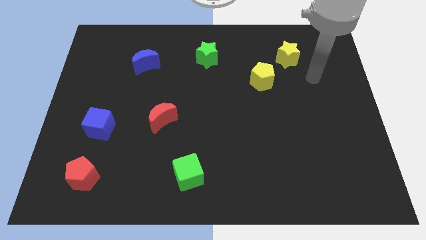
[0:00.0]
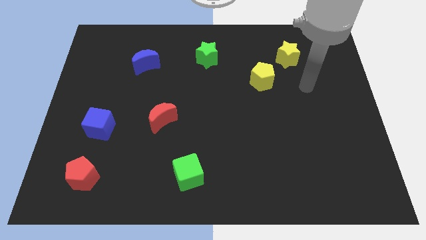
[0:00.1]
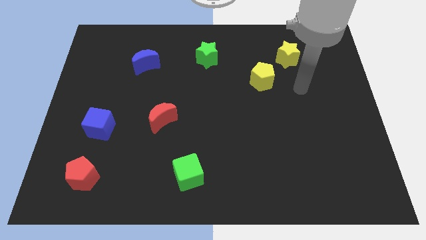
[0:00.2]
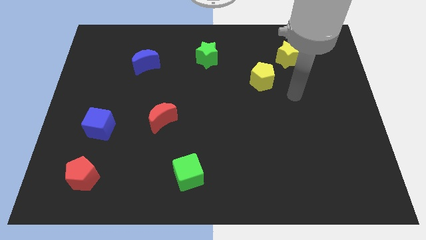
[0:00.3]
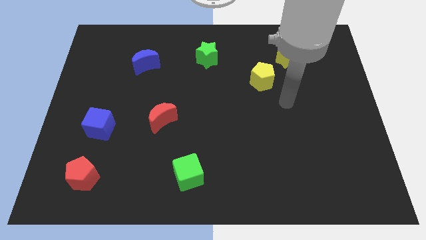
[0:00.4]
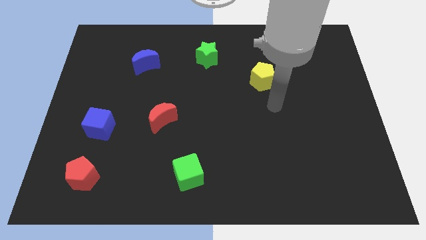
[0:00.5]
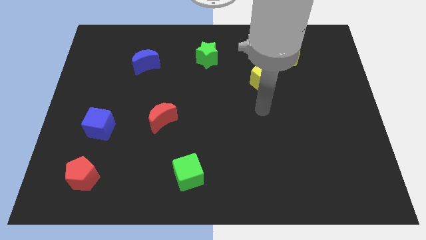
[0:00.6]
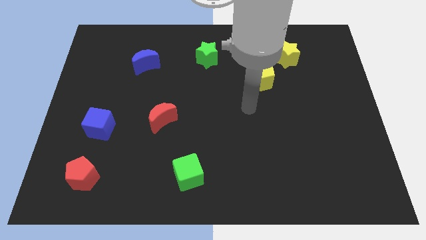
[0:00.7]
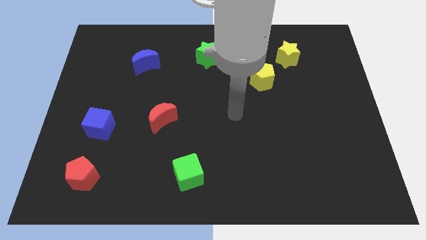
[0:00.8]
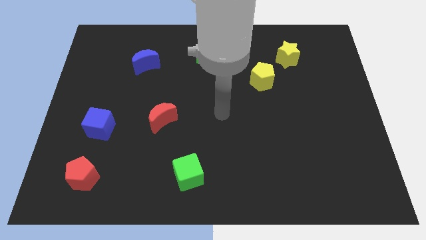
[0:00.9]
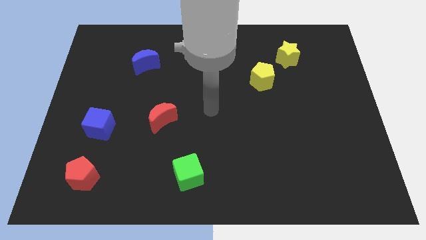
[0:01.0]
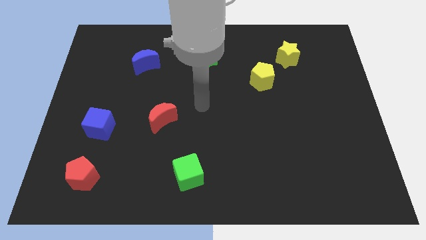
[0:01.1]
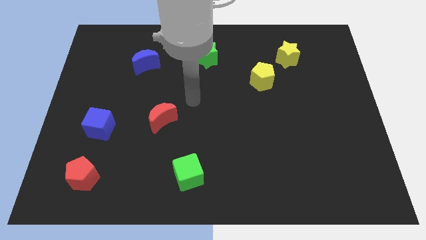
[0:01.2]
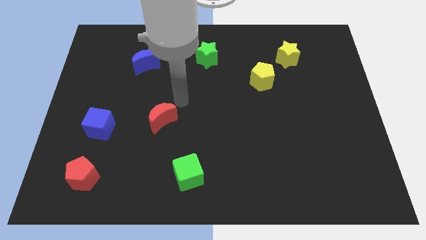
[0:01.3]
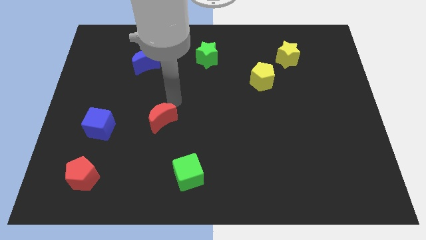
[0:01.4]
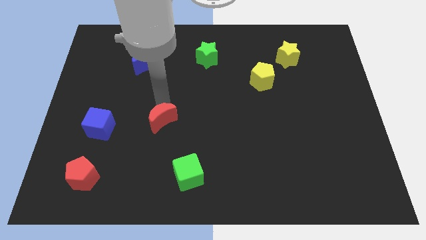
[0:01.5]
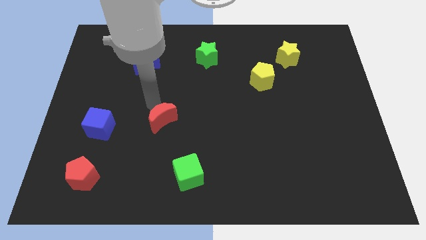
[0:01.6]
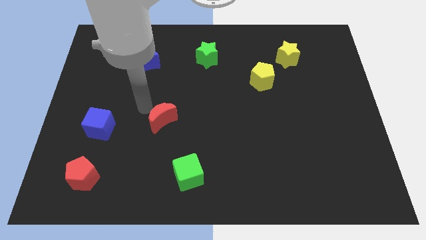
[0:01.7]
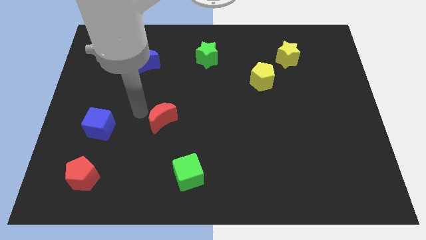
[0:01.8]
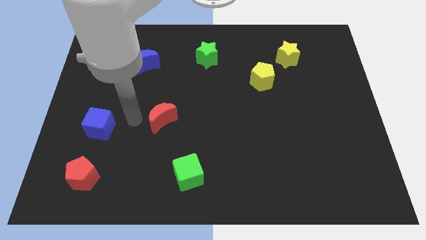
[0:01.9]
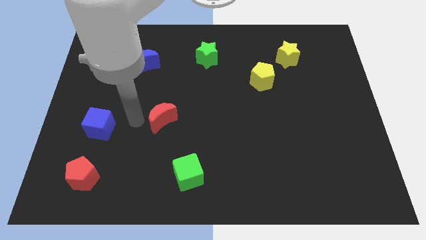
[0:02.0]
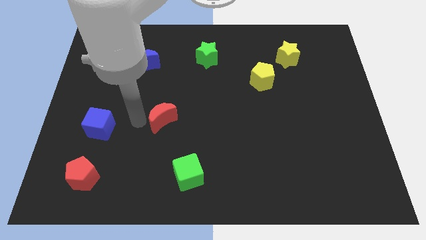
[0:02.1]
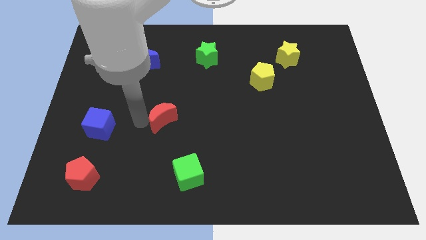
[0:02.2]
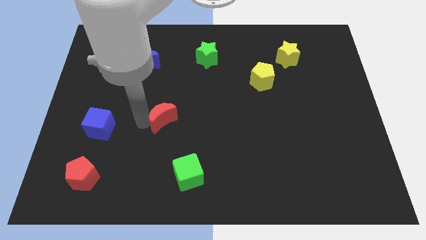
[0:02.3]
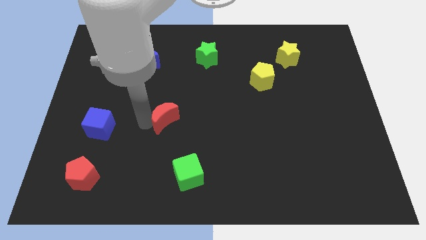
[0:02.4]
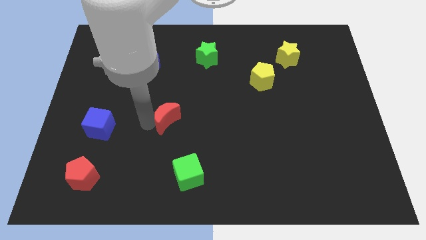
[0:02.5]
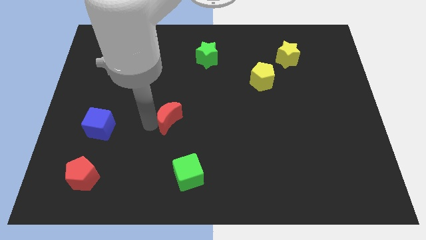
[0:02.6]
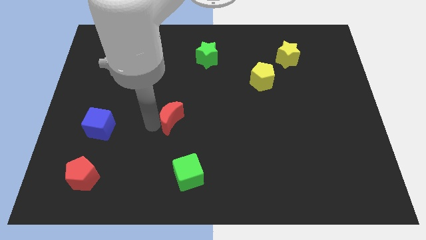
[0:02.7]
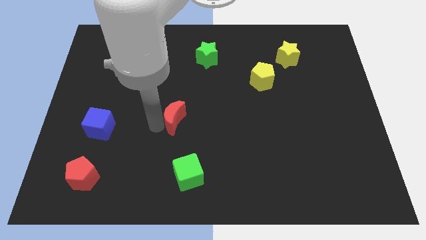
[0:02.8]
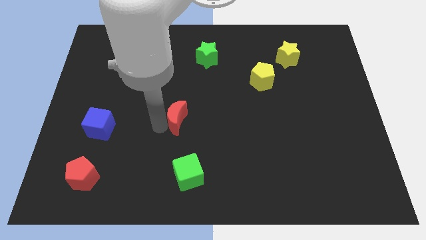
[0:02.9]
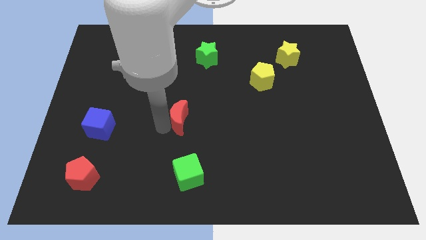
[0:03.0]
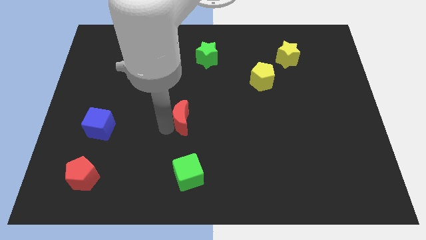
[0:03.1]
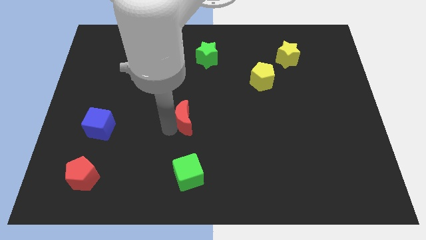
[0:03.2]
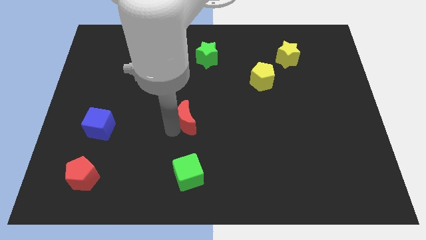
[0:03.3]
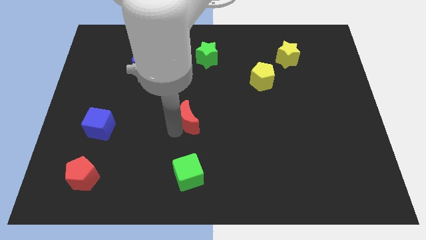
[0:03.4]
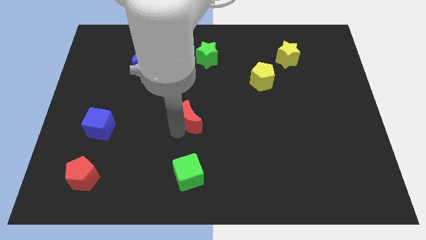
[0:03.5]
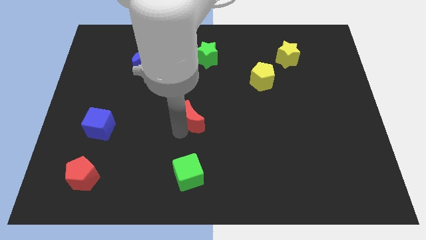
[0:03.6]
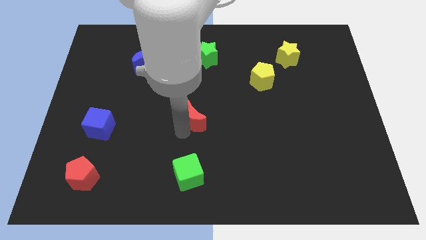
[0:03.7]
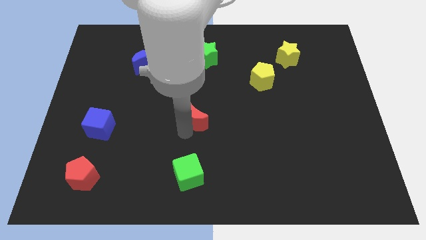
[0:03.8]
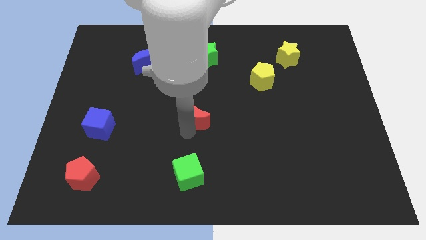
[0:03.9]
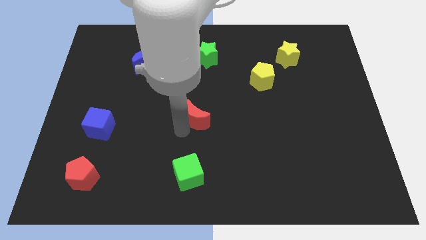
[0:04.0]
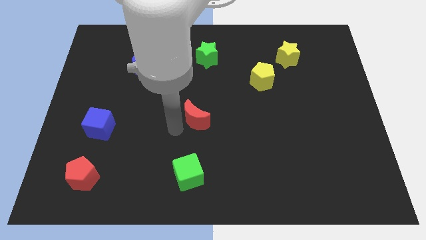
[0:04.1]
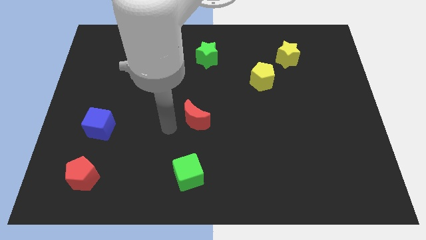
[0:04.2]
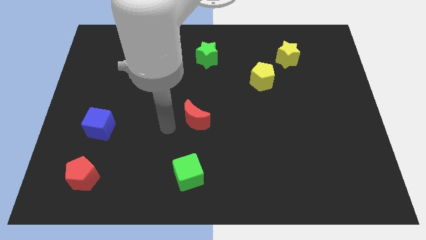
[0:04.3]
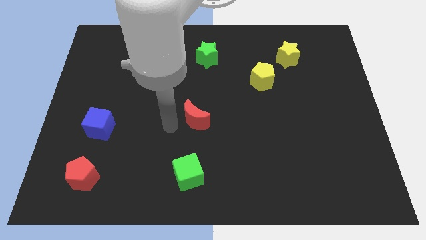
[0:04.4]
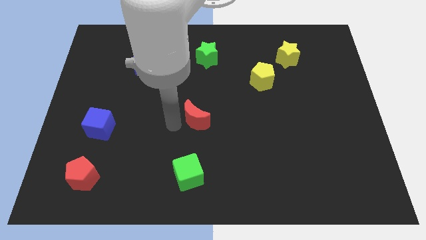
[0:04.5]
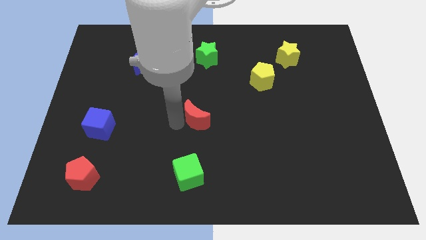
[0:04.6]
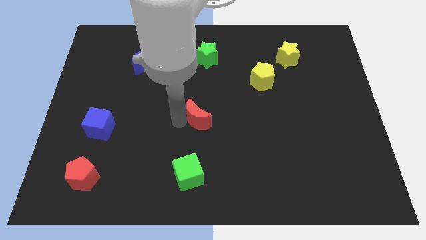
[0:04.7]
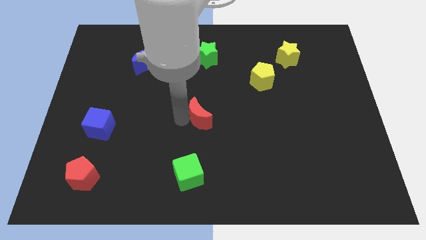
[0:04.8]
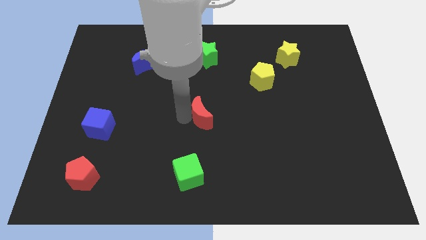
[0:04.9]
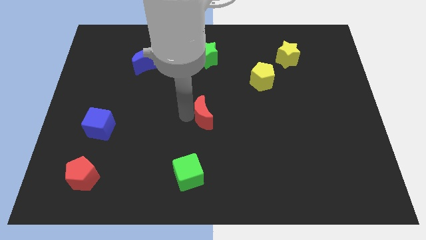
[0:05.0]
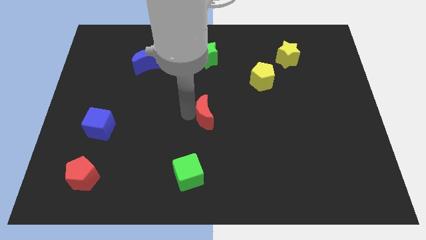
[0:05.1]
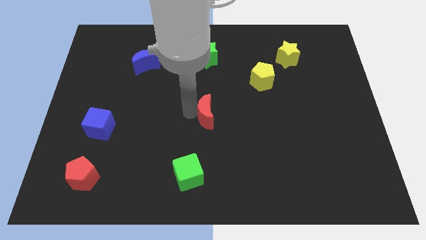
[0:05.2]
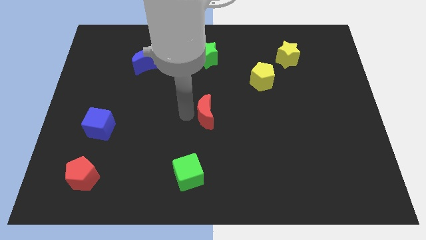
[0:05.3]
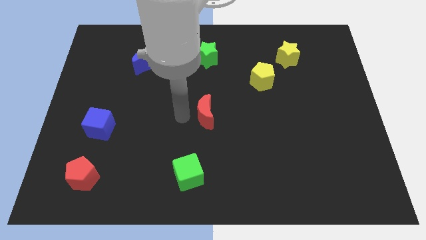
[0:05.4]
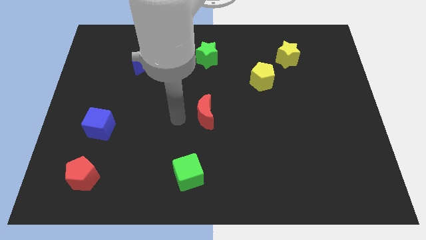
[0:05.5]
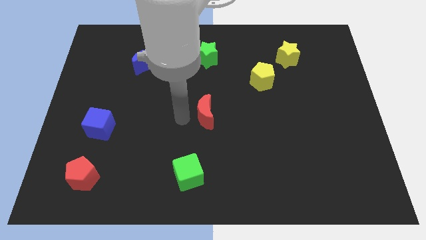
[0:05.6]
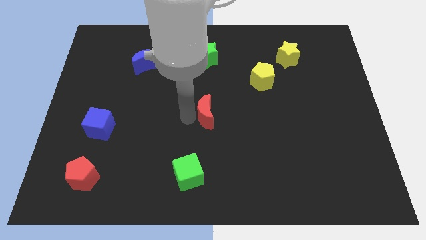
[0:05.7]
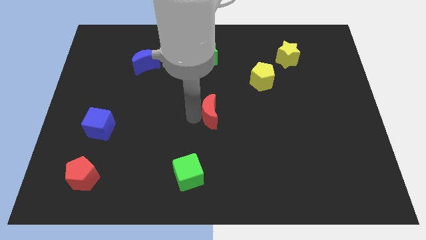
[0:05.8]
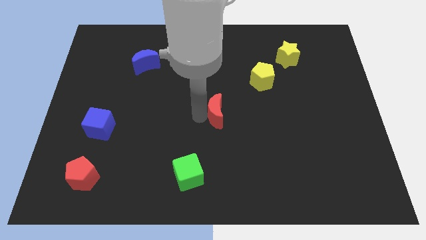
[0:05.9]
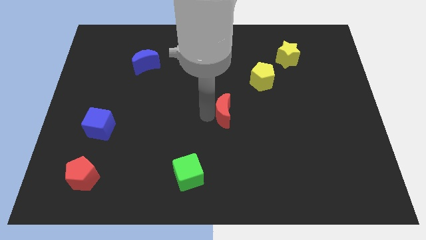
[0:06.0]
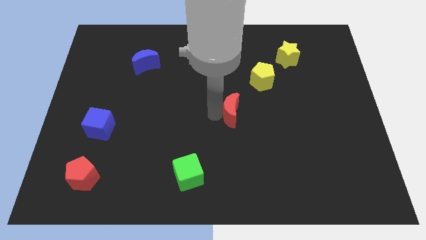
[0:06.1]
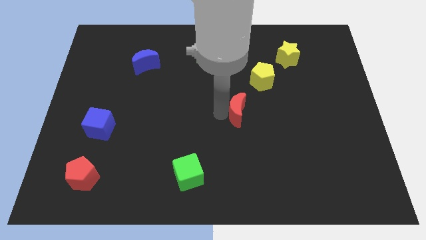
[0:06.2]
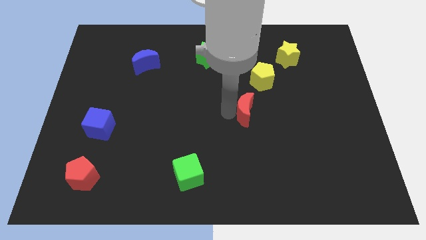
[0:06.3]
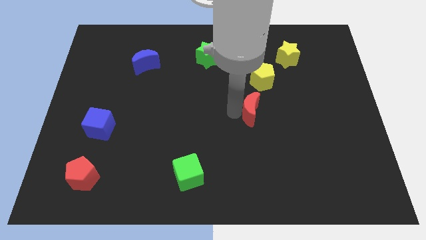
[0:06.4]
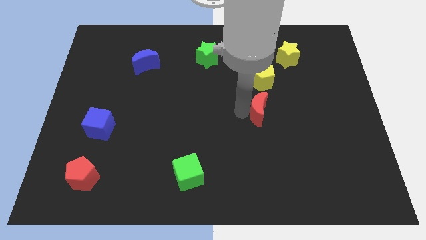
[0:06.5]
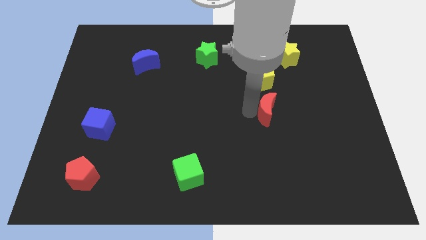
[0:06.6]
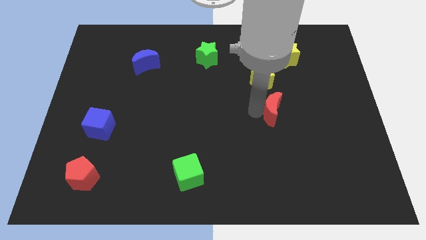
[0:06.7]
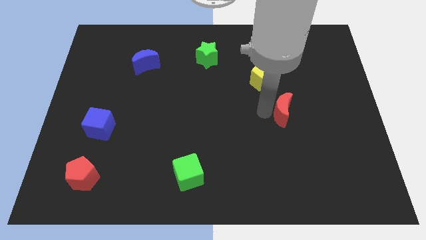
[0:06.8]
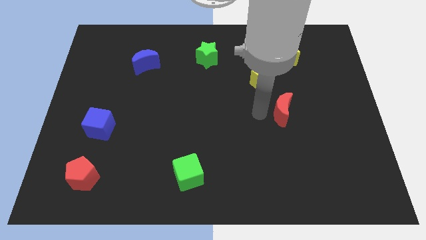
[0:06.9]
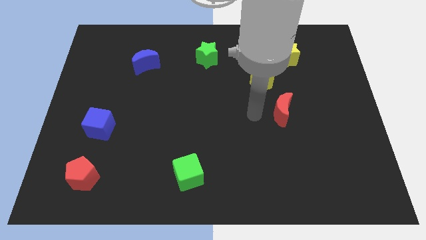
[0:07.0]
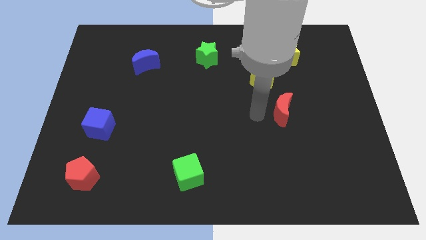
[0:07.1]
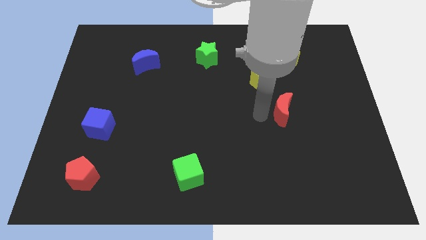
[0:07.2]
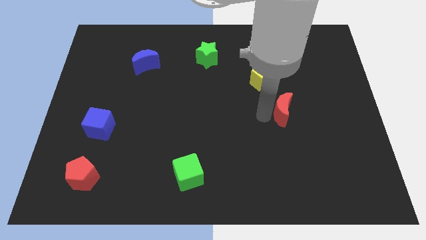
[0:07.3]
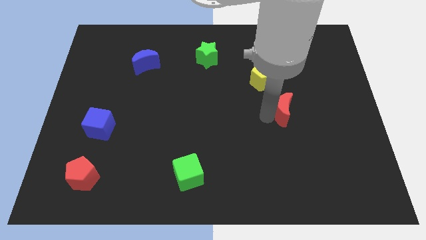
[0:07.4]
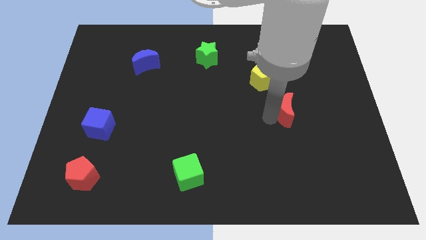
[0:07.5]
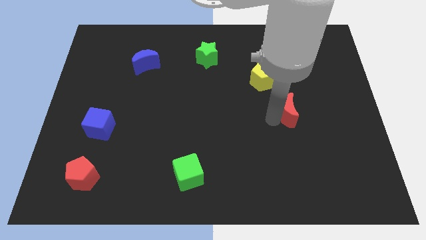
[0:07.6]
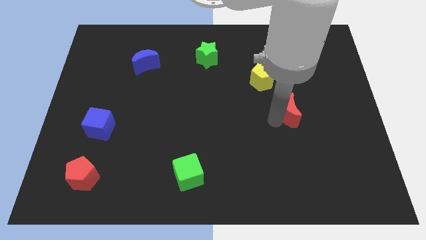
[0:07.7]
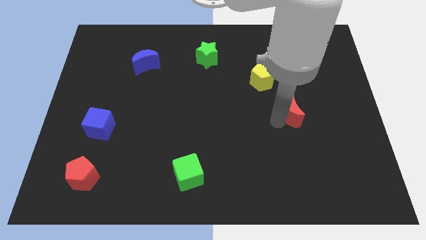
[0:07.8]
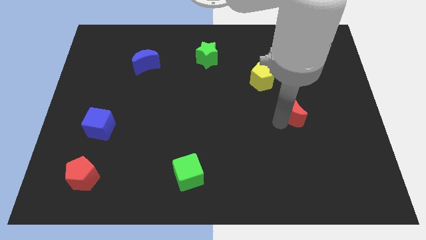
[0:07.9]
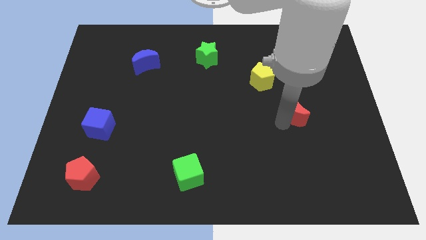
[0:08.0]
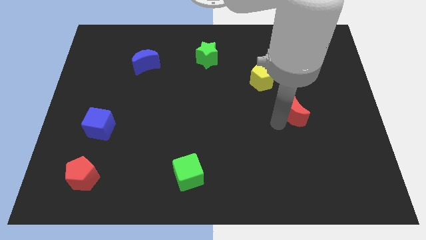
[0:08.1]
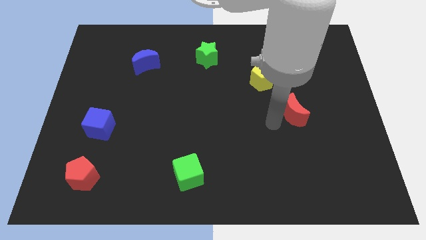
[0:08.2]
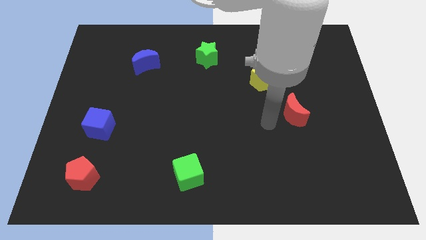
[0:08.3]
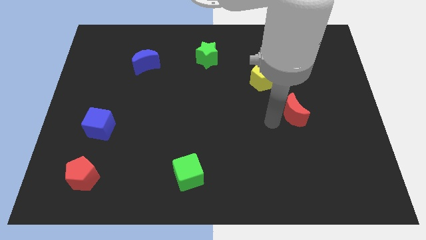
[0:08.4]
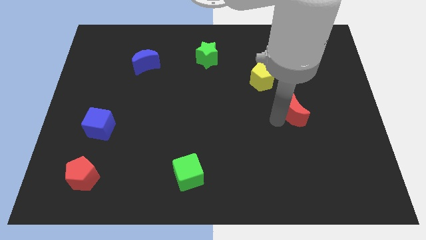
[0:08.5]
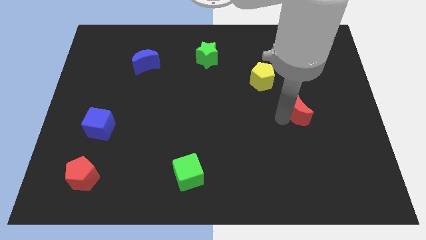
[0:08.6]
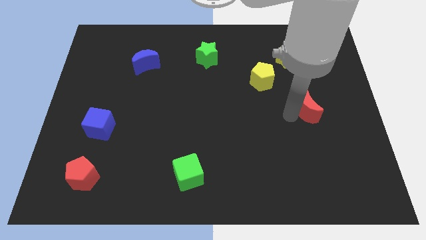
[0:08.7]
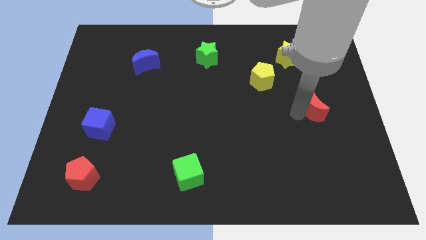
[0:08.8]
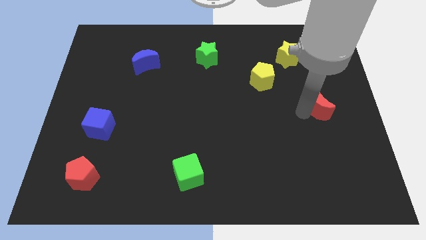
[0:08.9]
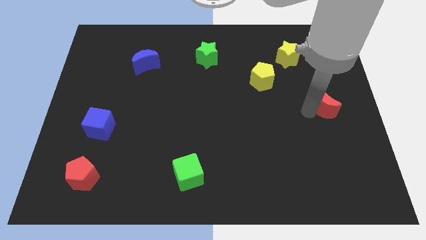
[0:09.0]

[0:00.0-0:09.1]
push the red moon to the right side of the board
